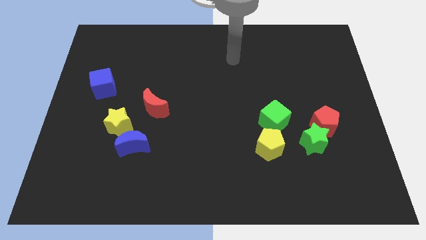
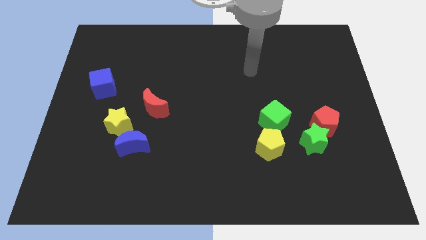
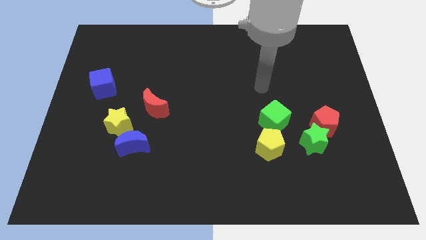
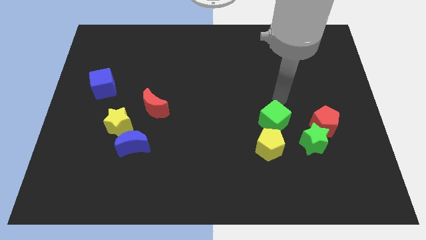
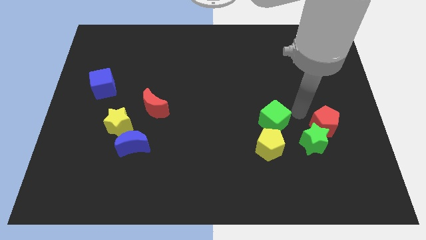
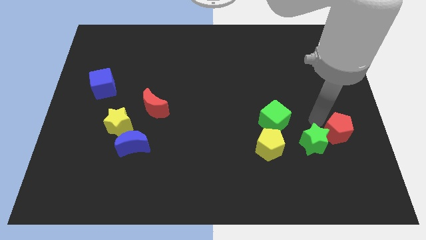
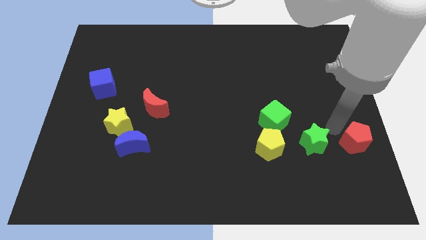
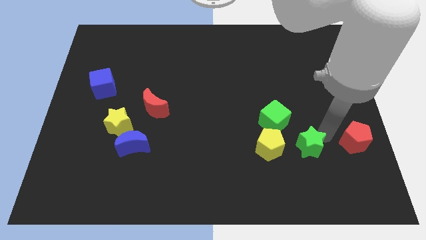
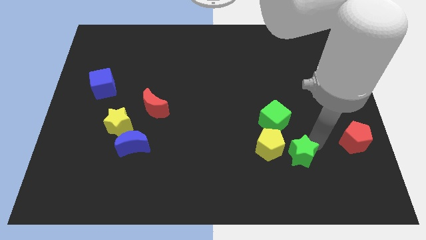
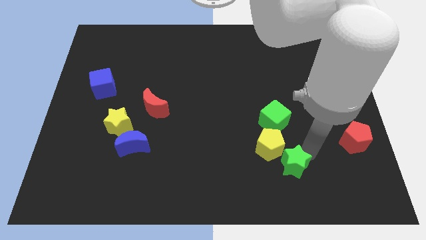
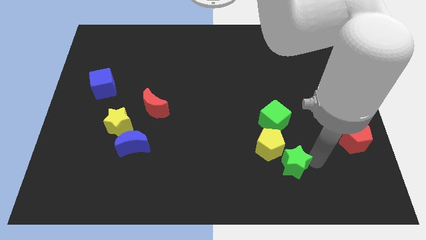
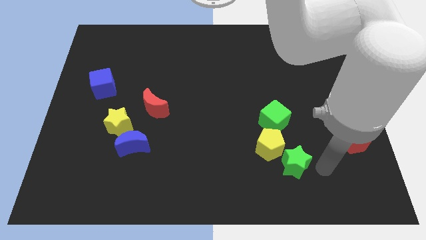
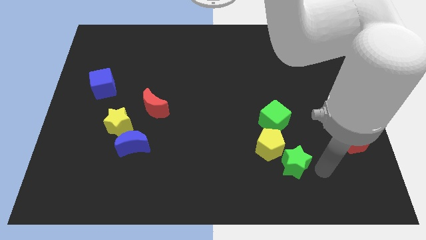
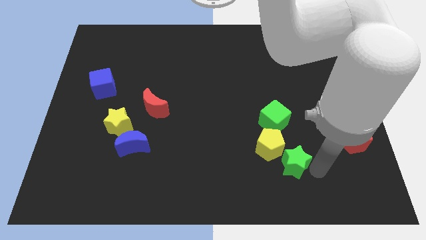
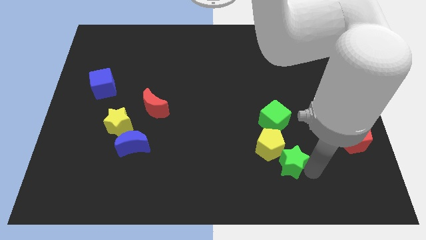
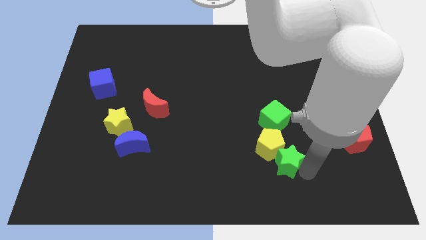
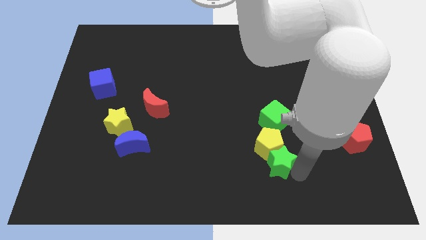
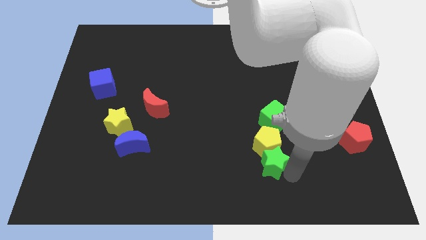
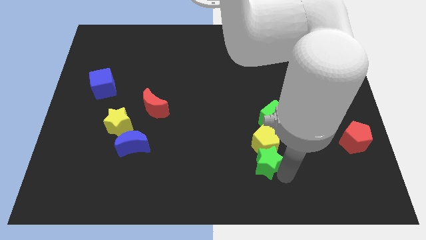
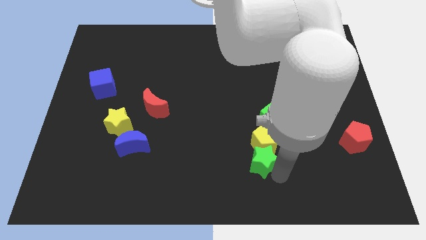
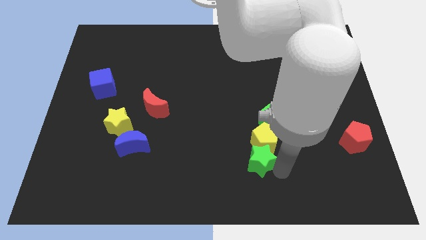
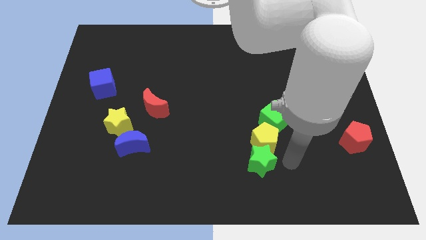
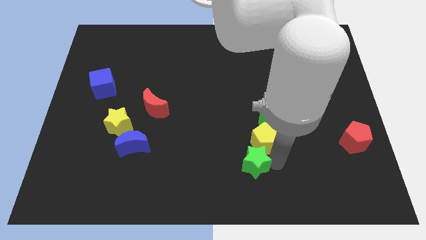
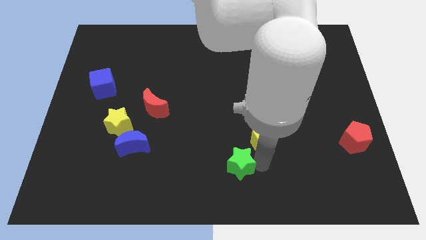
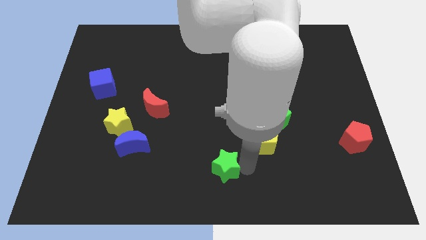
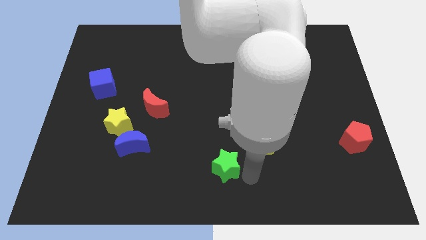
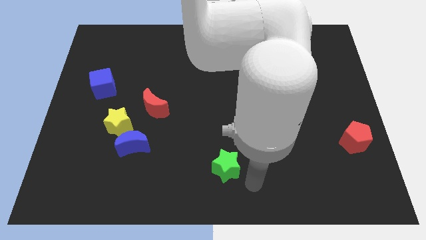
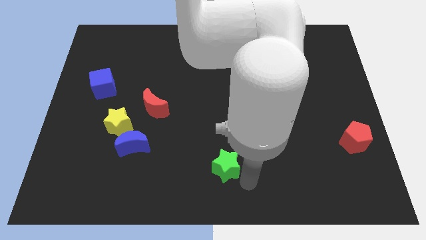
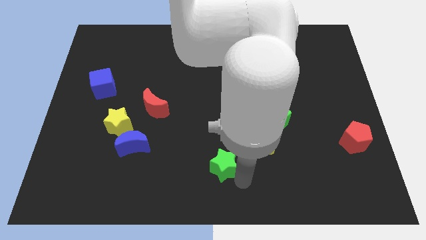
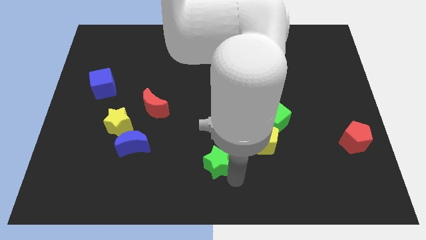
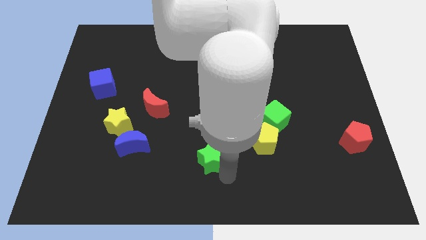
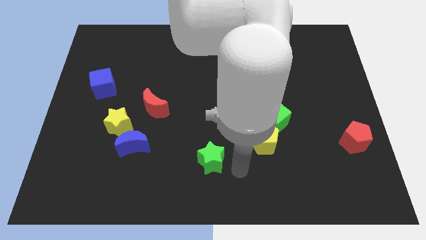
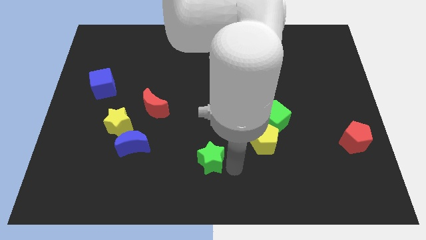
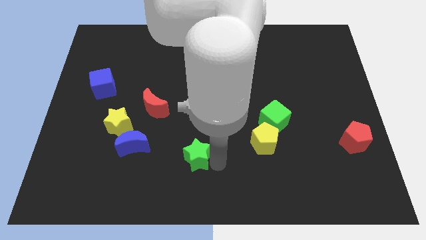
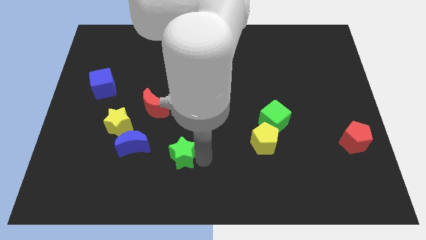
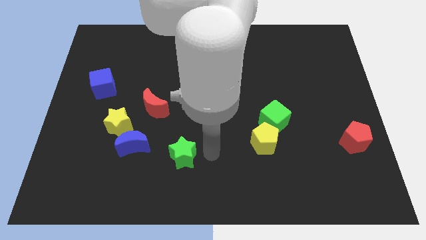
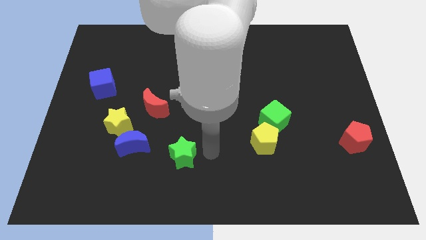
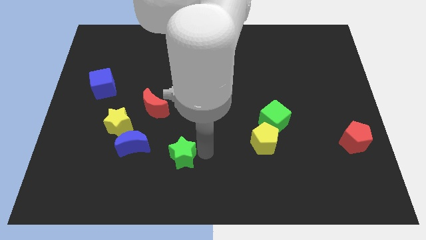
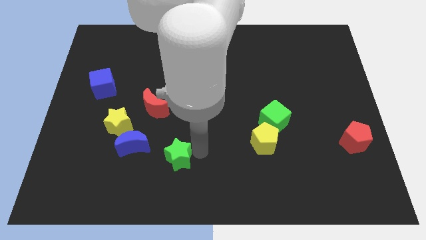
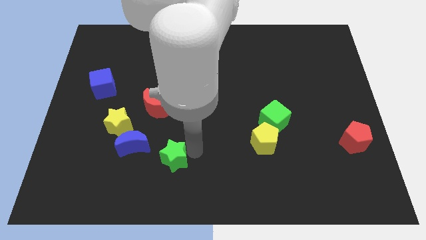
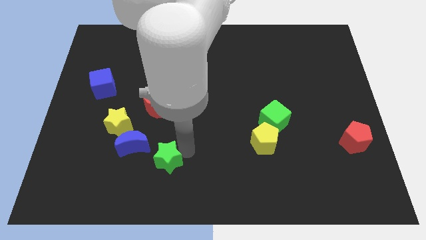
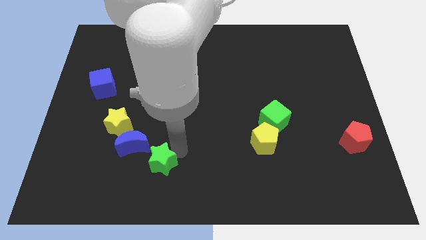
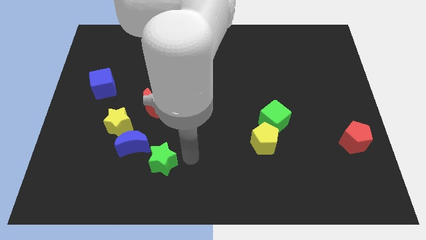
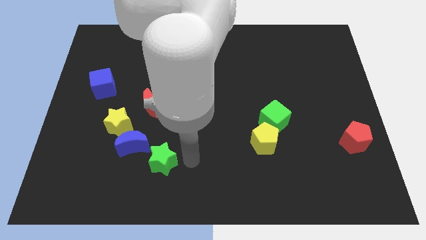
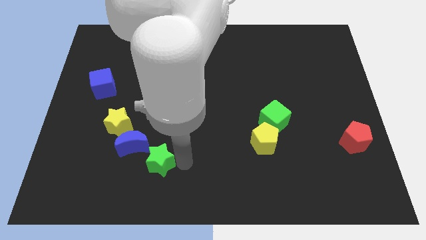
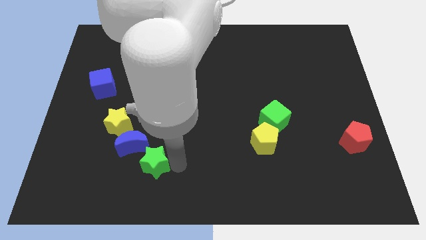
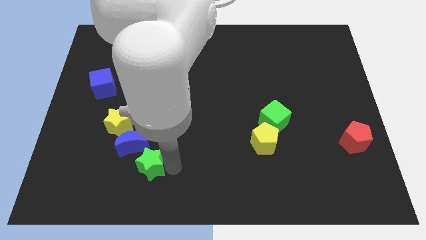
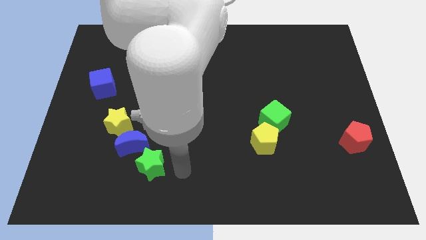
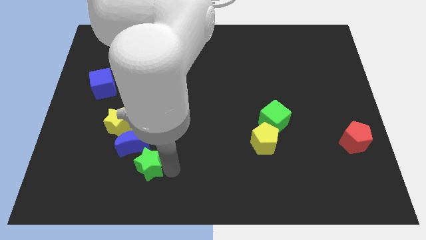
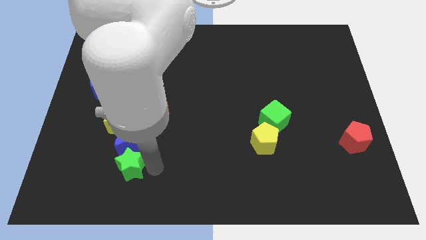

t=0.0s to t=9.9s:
move the green star to the bottom left of the blue moon

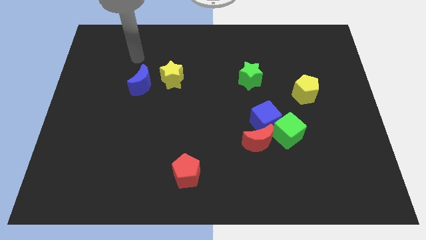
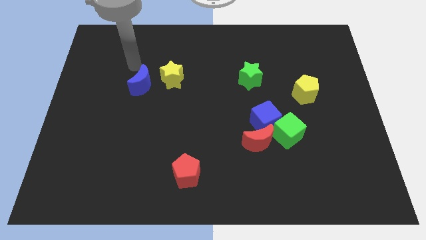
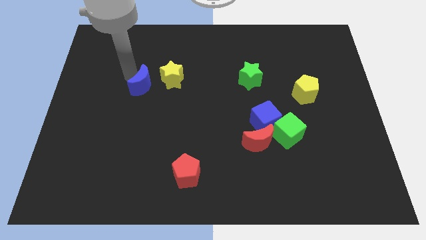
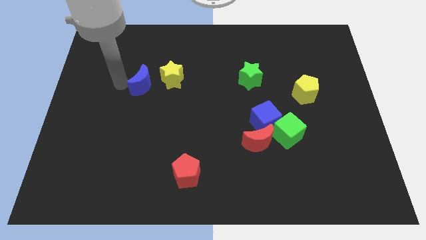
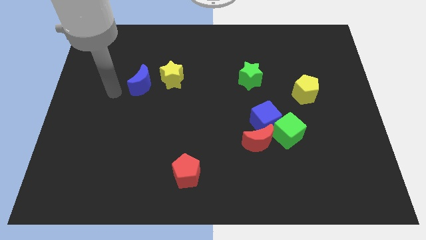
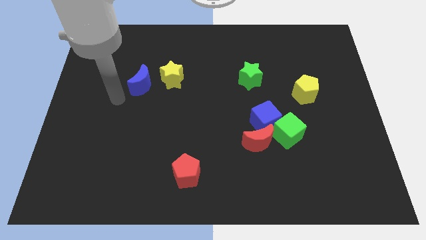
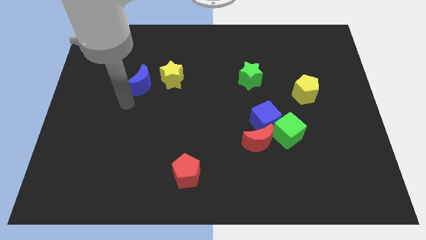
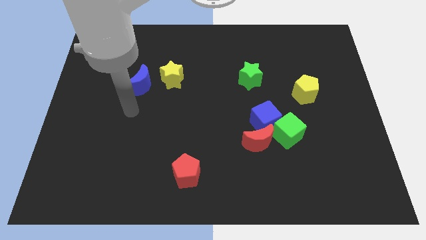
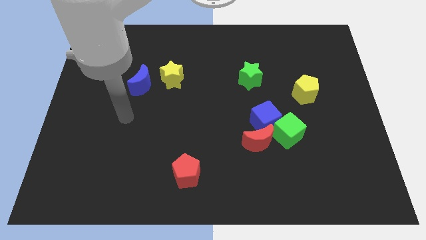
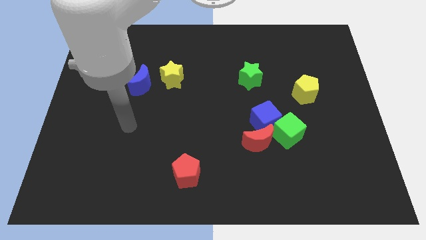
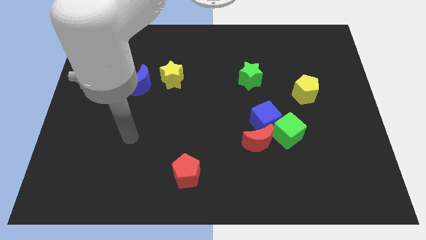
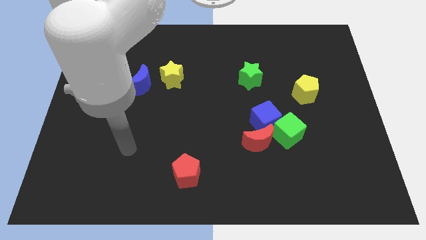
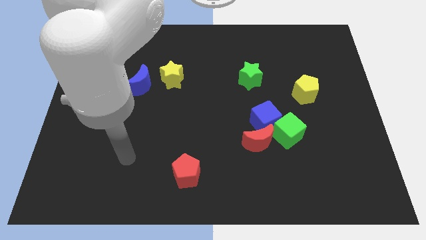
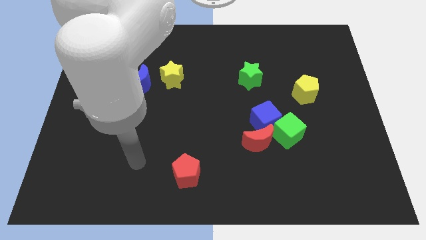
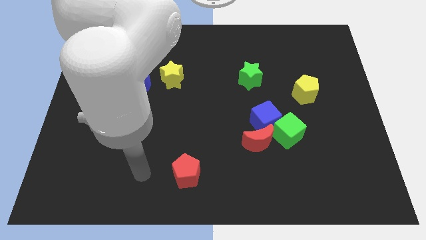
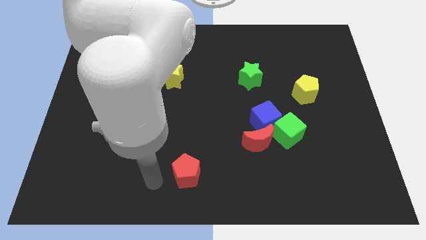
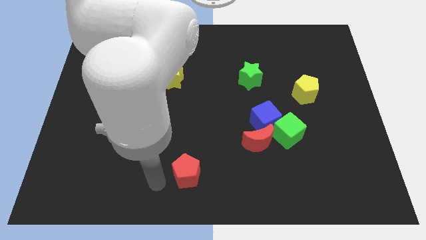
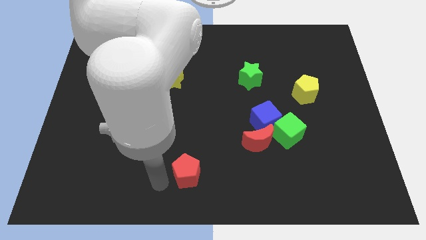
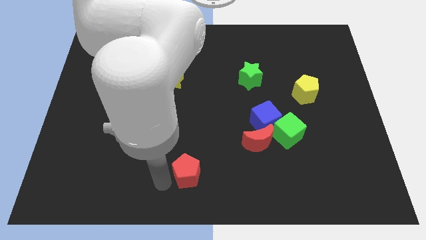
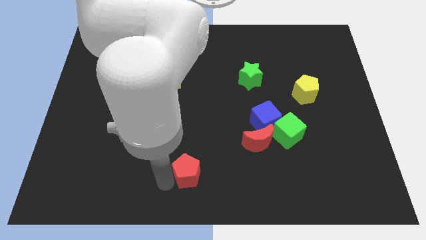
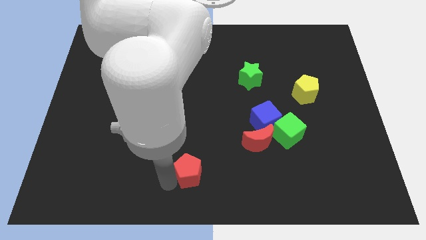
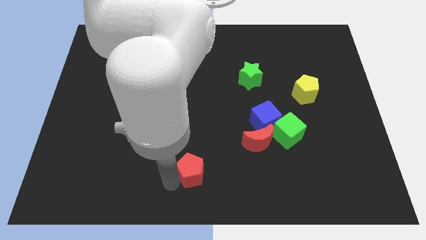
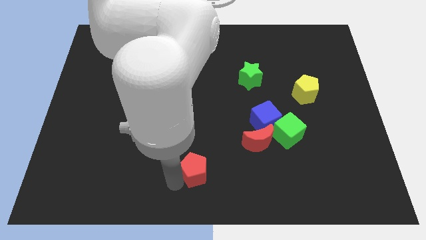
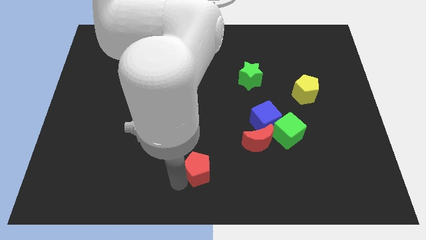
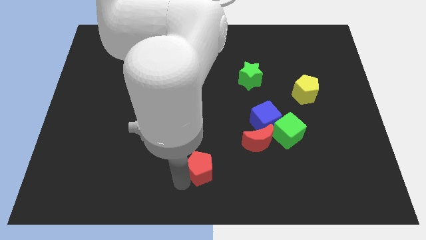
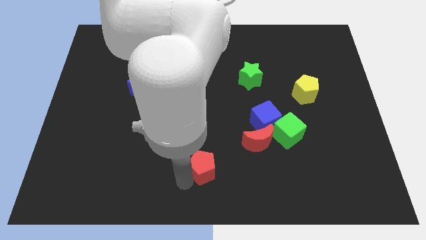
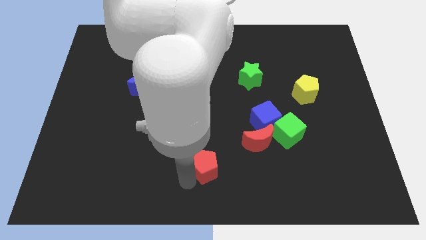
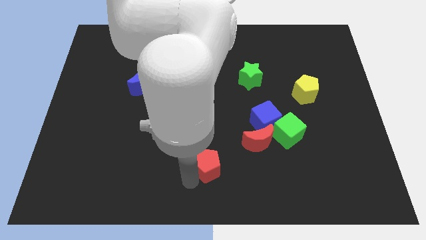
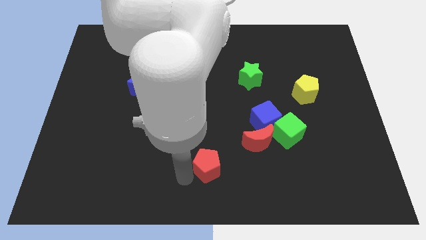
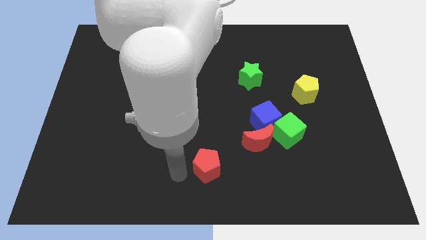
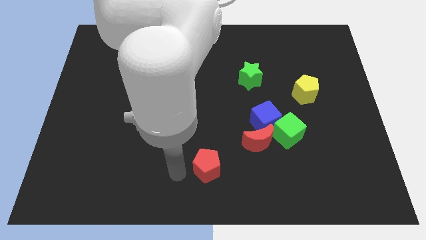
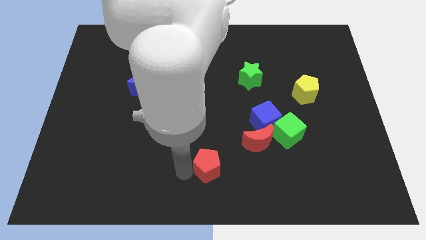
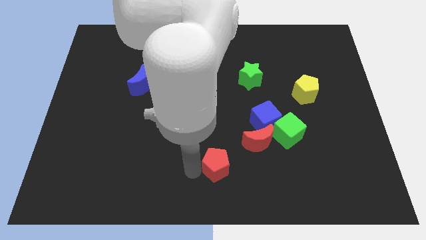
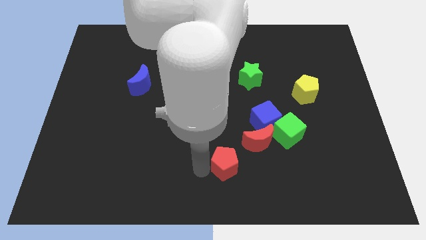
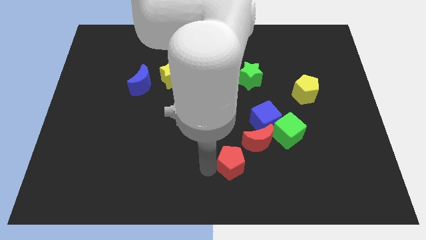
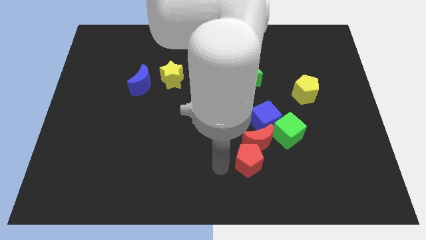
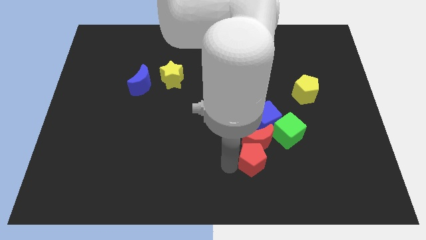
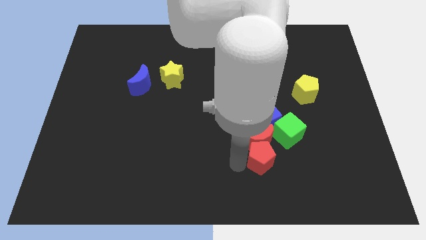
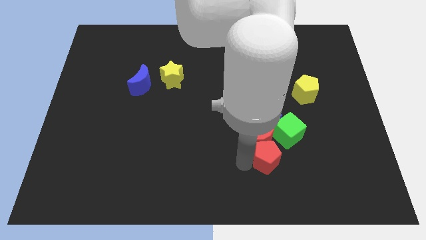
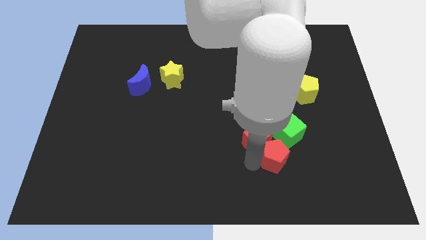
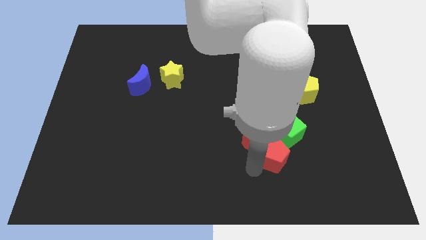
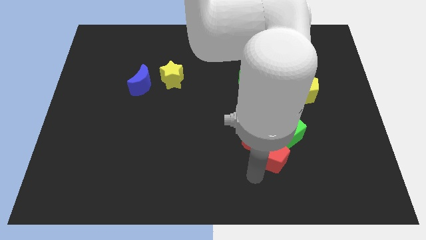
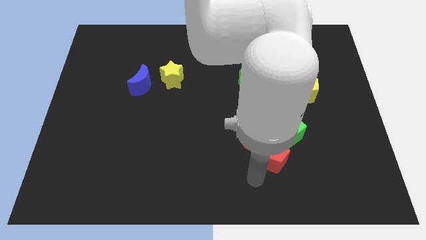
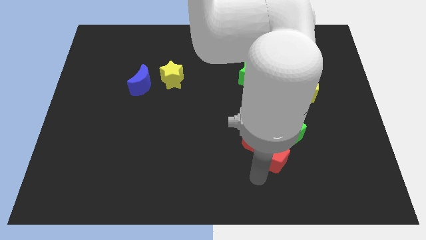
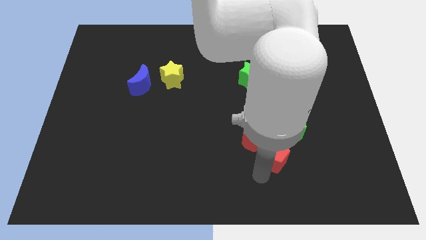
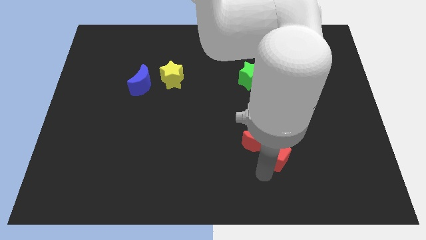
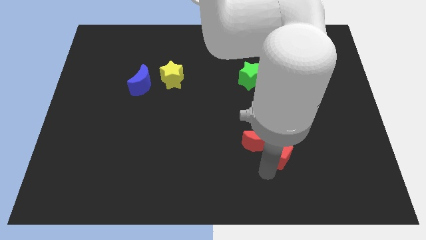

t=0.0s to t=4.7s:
move the red pentagon to the bottom right side of the blue cube
